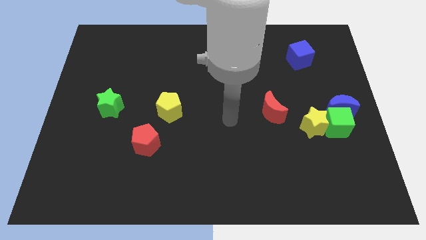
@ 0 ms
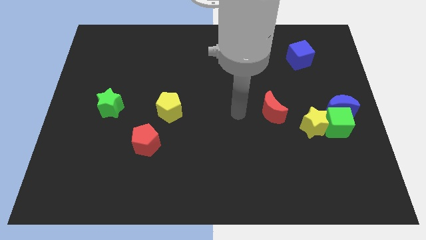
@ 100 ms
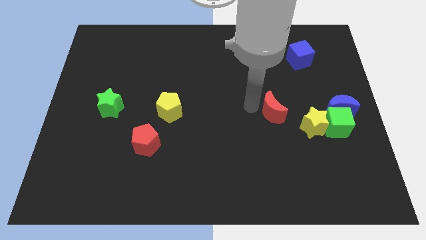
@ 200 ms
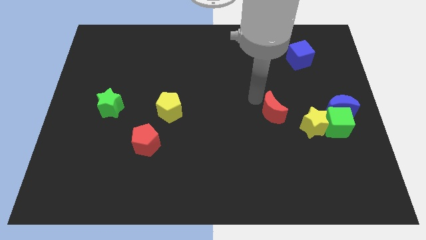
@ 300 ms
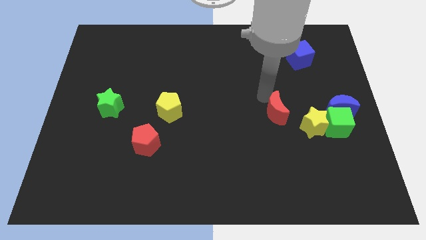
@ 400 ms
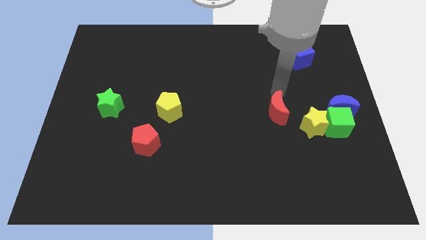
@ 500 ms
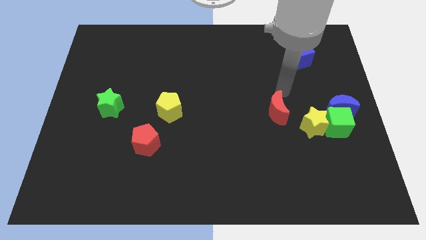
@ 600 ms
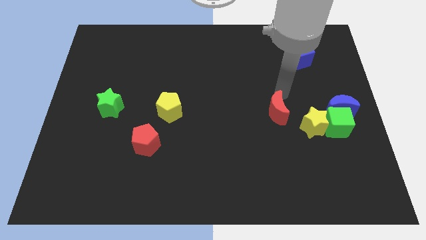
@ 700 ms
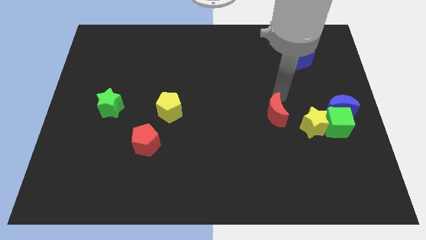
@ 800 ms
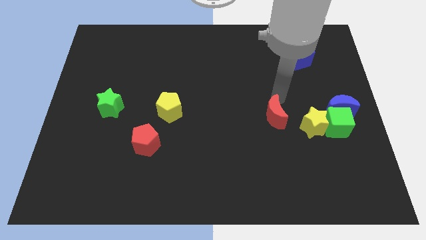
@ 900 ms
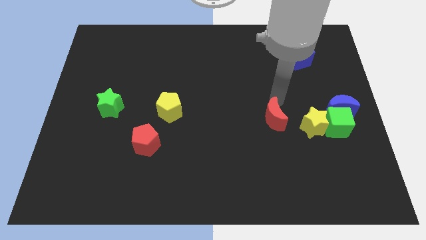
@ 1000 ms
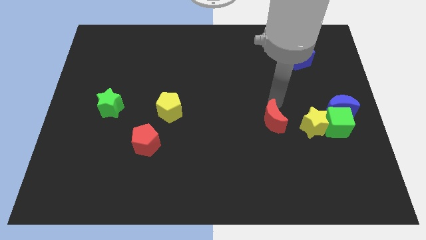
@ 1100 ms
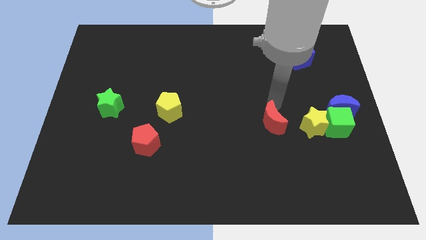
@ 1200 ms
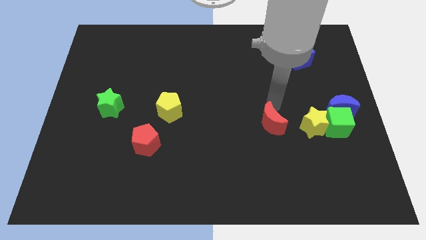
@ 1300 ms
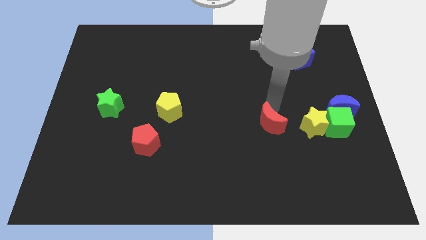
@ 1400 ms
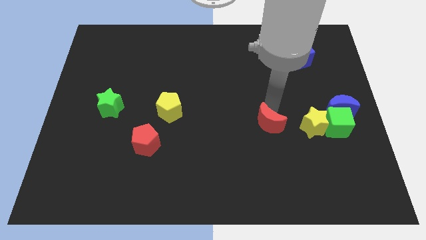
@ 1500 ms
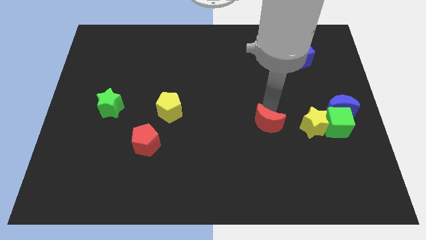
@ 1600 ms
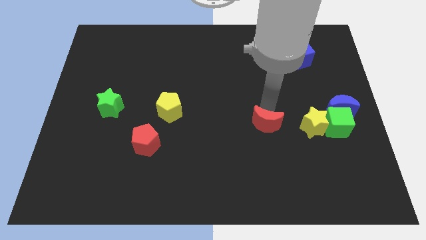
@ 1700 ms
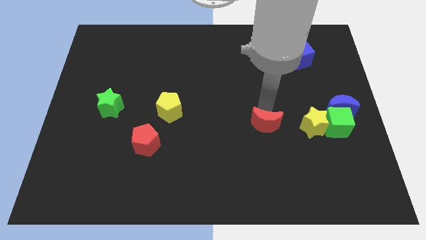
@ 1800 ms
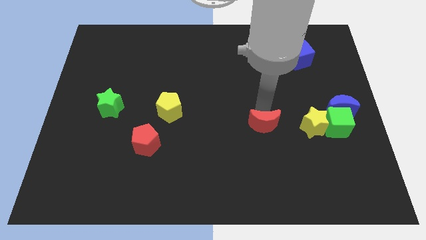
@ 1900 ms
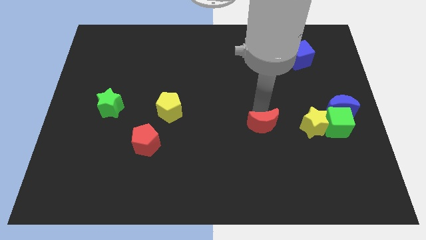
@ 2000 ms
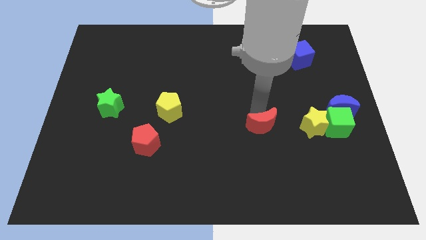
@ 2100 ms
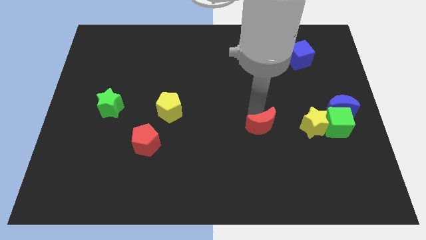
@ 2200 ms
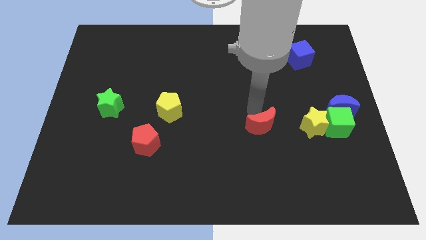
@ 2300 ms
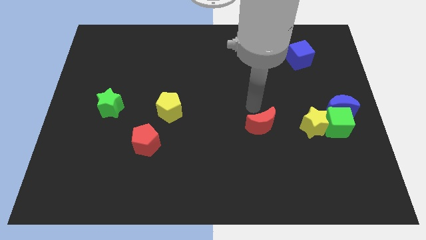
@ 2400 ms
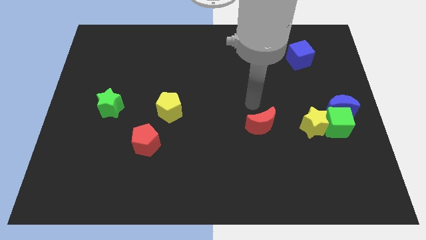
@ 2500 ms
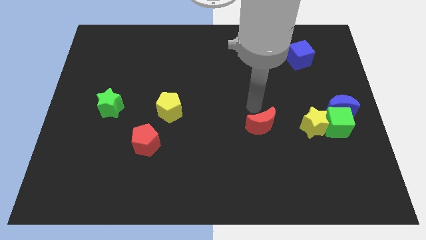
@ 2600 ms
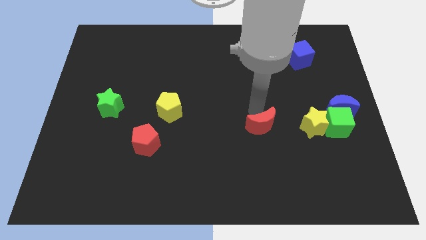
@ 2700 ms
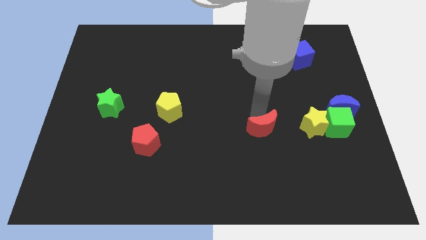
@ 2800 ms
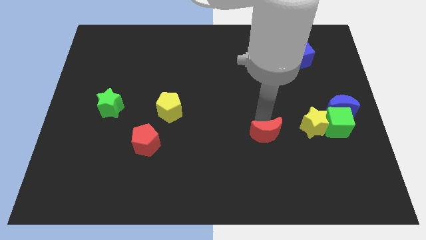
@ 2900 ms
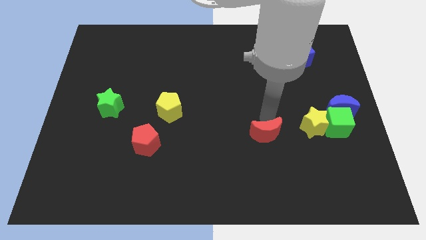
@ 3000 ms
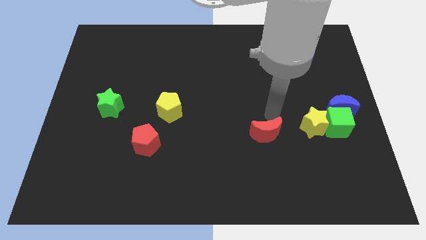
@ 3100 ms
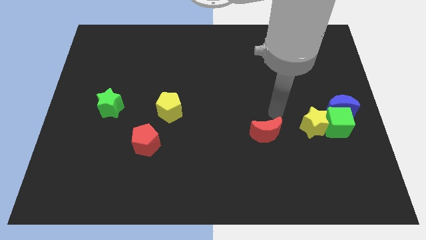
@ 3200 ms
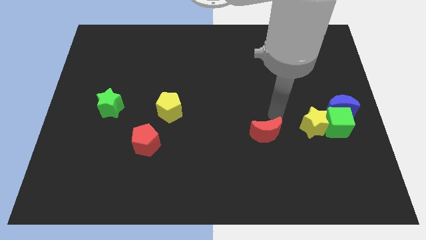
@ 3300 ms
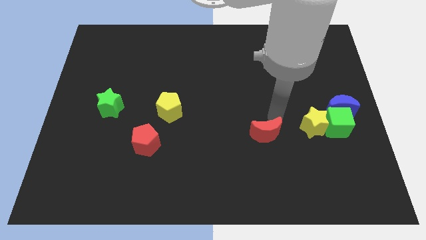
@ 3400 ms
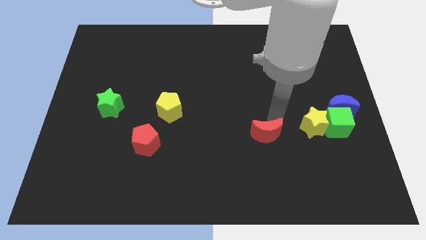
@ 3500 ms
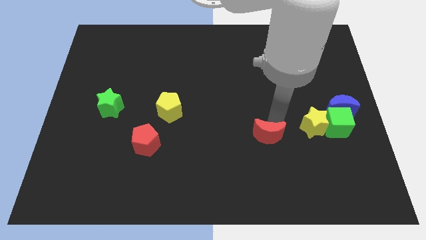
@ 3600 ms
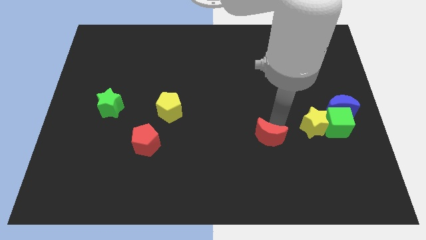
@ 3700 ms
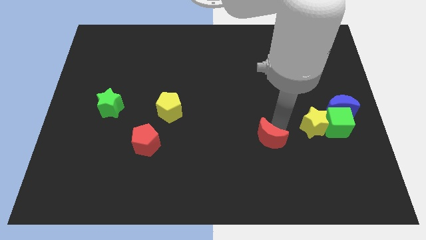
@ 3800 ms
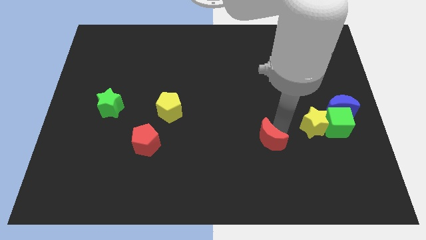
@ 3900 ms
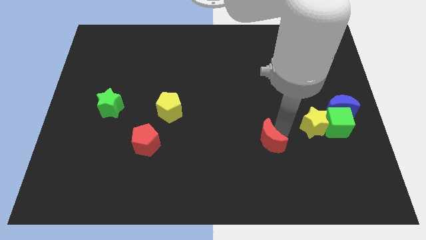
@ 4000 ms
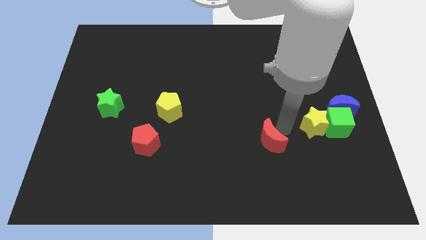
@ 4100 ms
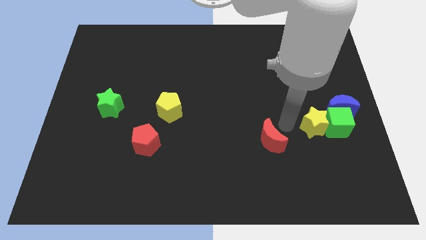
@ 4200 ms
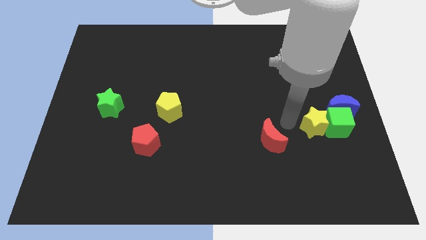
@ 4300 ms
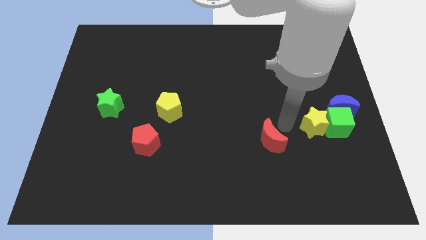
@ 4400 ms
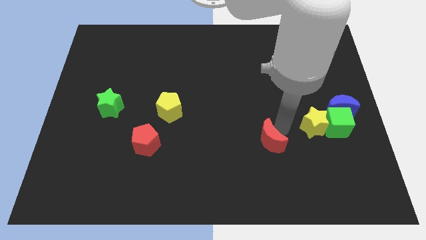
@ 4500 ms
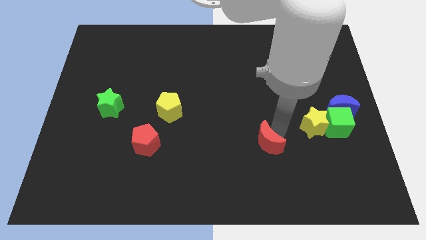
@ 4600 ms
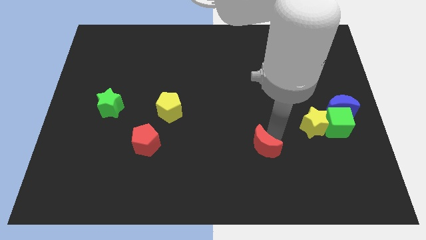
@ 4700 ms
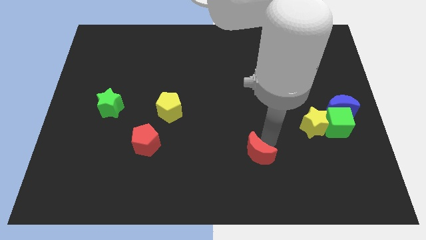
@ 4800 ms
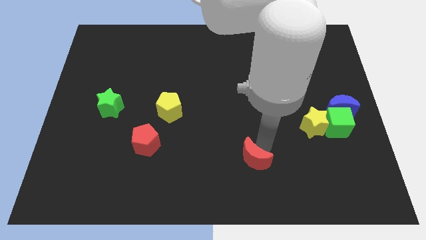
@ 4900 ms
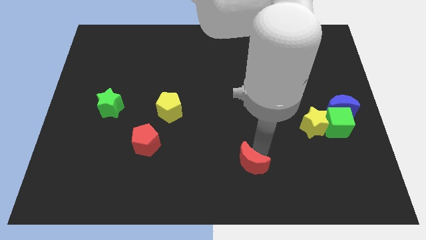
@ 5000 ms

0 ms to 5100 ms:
move the red moon to the bottom side

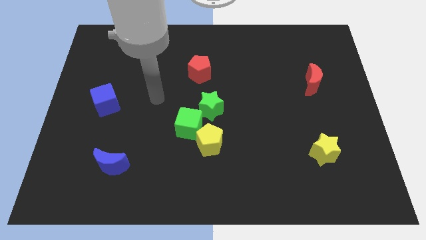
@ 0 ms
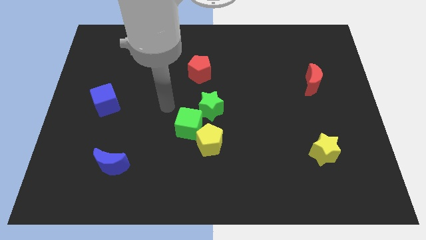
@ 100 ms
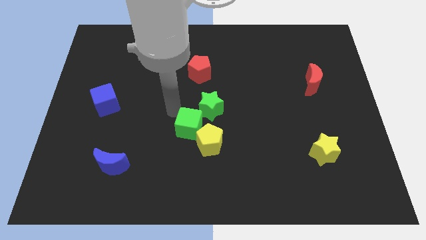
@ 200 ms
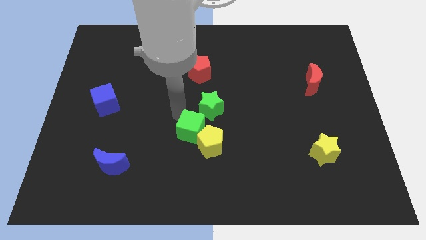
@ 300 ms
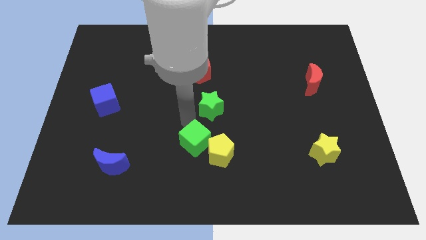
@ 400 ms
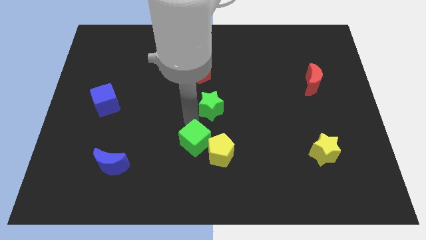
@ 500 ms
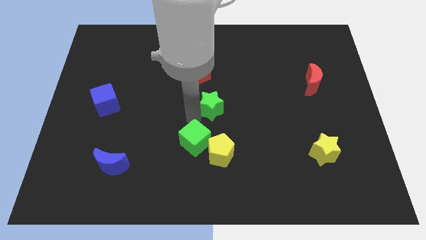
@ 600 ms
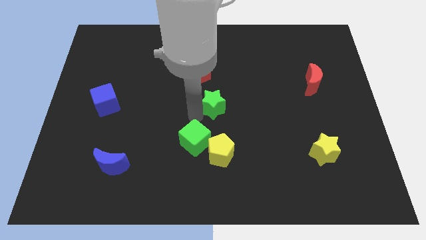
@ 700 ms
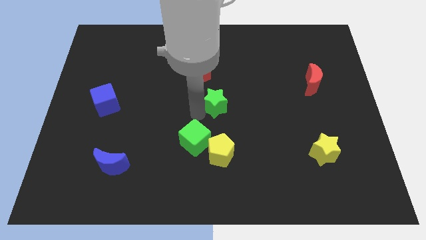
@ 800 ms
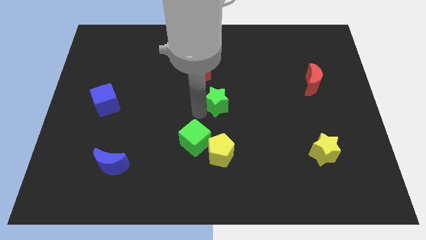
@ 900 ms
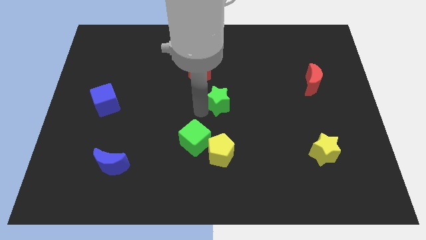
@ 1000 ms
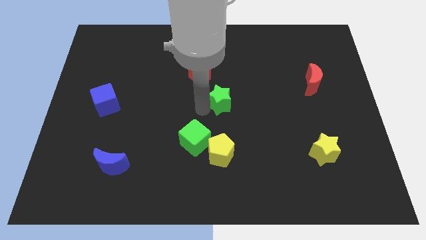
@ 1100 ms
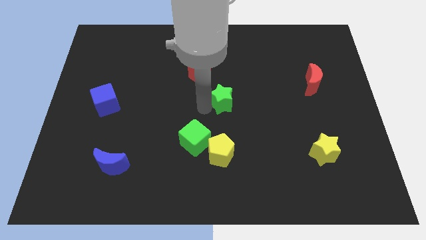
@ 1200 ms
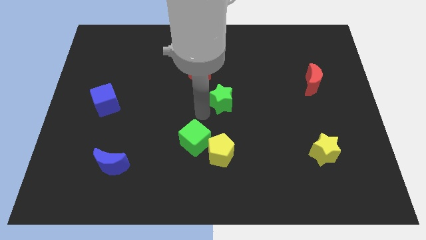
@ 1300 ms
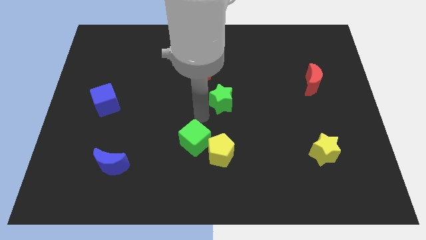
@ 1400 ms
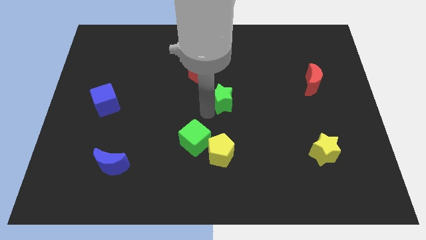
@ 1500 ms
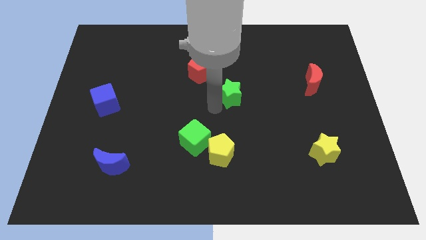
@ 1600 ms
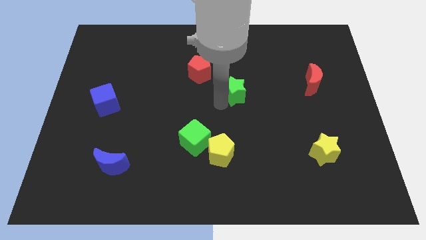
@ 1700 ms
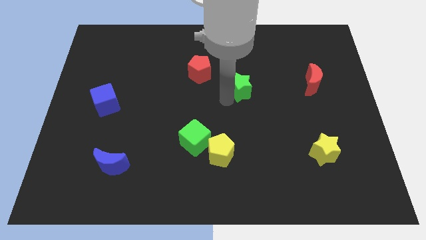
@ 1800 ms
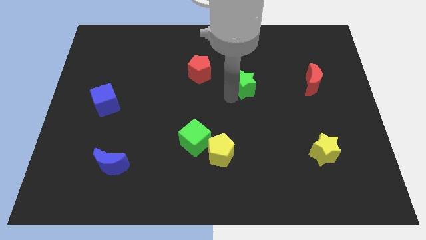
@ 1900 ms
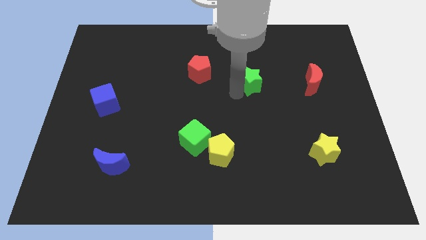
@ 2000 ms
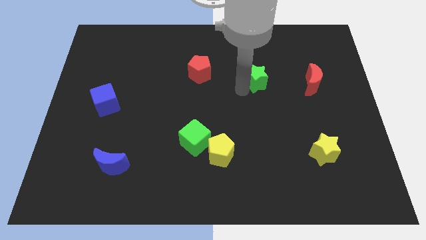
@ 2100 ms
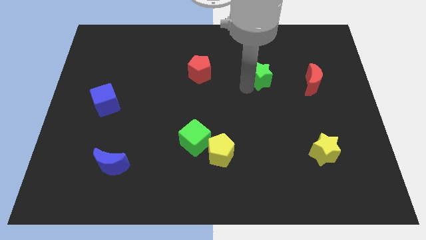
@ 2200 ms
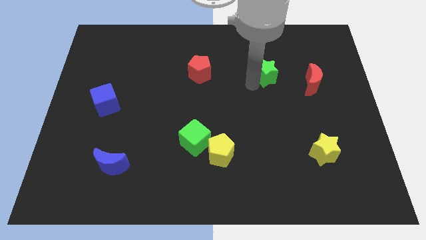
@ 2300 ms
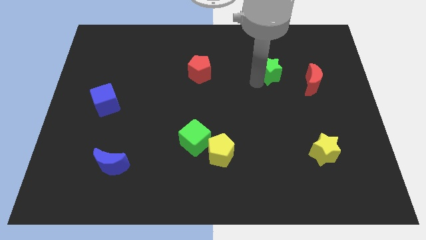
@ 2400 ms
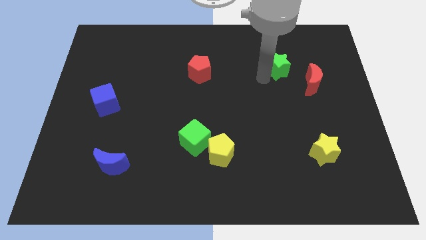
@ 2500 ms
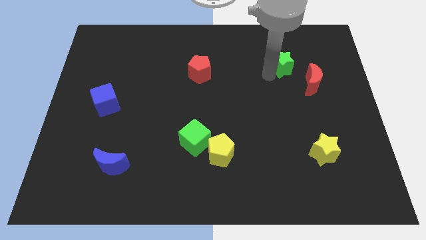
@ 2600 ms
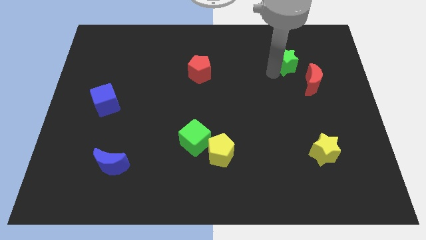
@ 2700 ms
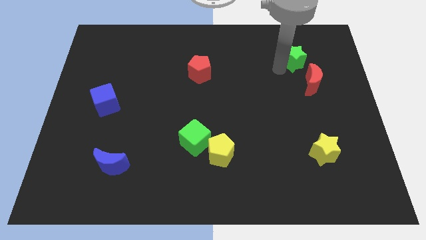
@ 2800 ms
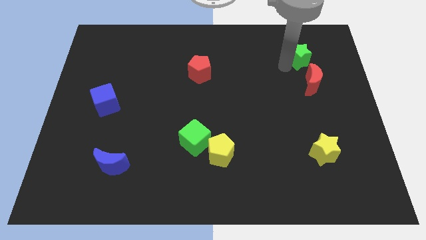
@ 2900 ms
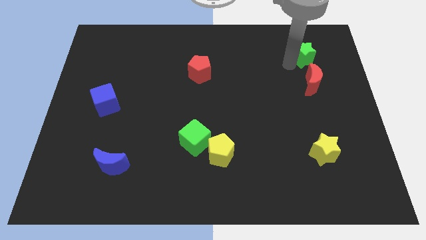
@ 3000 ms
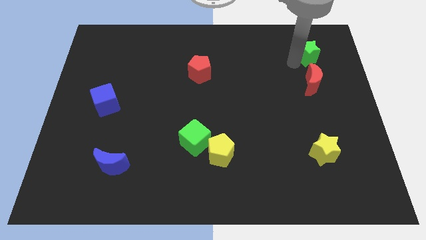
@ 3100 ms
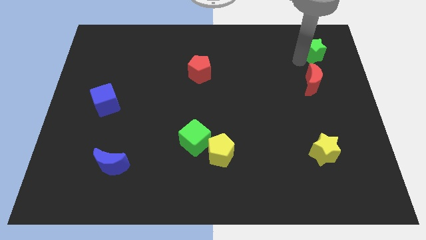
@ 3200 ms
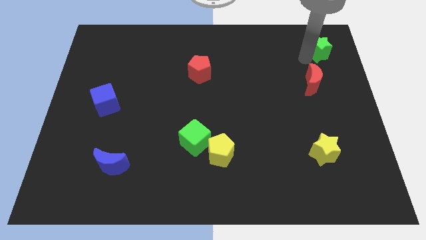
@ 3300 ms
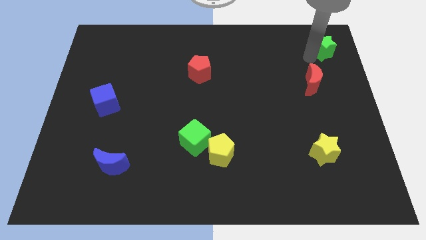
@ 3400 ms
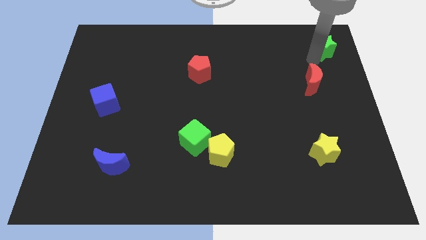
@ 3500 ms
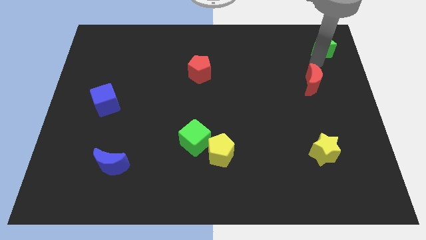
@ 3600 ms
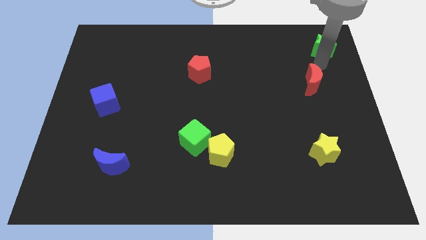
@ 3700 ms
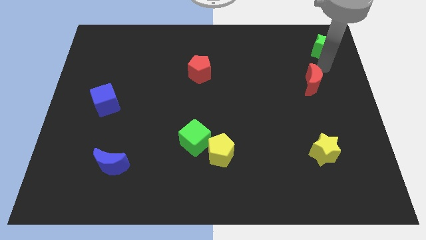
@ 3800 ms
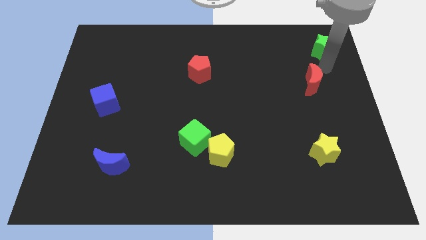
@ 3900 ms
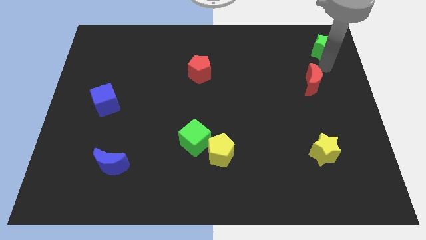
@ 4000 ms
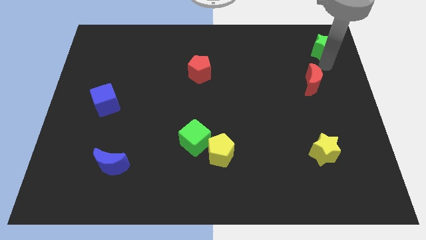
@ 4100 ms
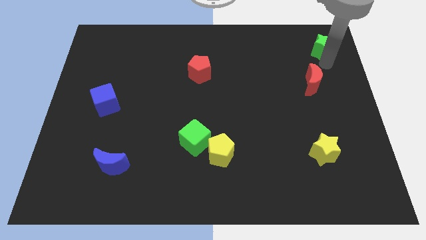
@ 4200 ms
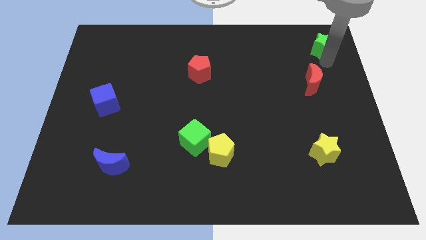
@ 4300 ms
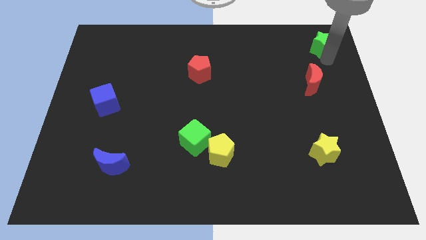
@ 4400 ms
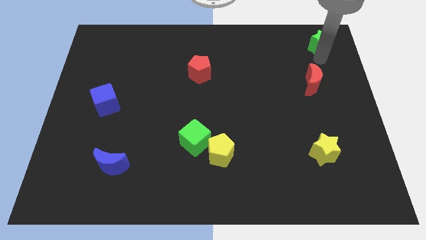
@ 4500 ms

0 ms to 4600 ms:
slide the green star to the top right corner
